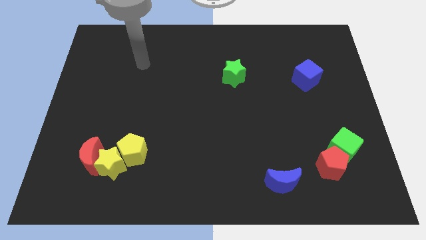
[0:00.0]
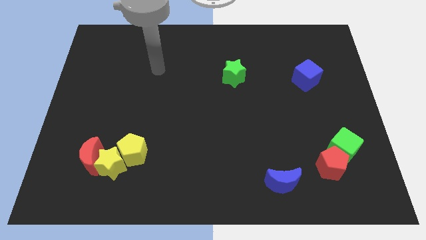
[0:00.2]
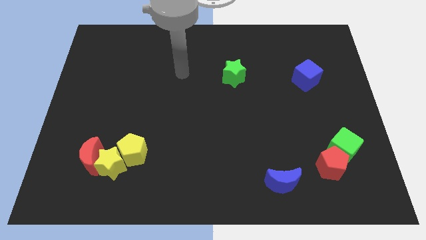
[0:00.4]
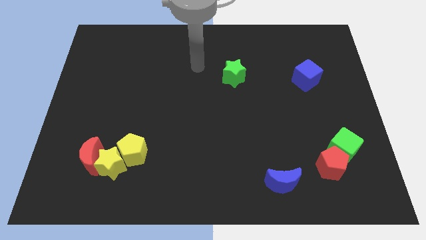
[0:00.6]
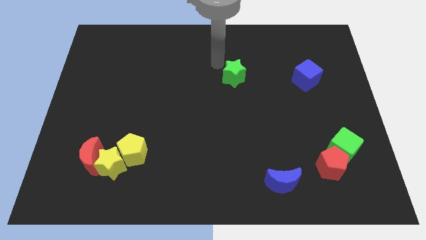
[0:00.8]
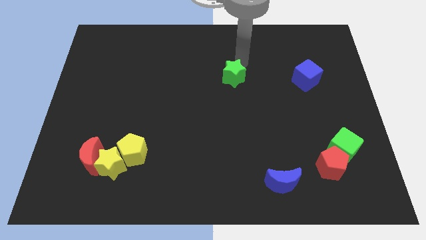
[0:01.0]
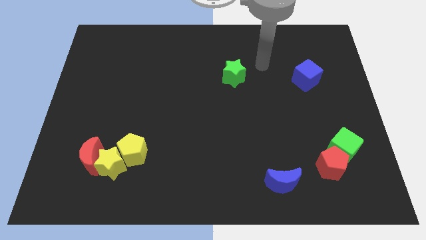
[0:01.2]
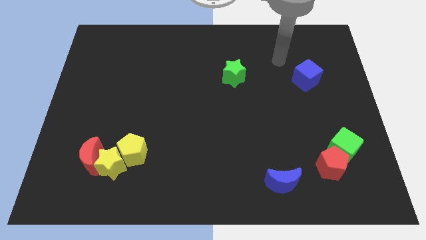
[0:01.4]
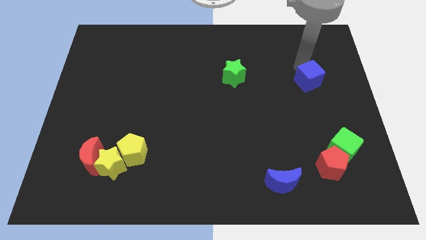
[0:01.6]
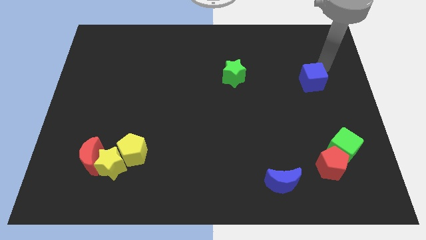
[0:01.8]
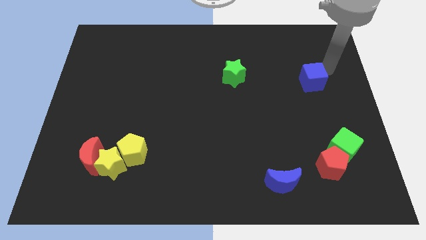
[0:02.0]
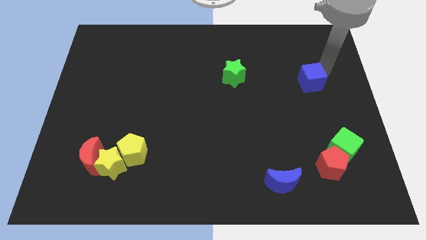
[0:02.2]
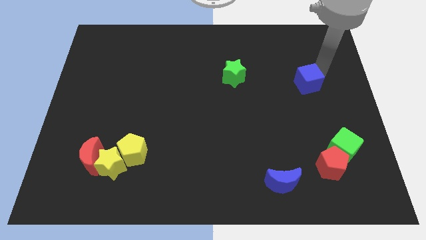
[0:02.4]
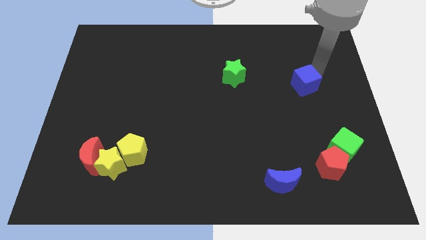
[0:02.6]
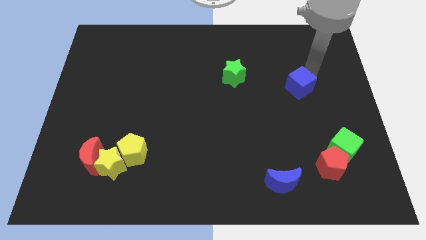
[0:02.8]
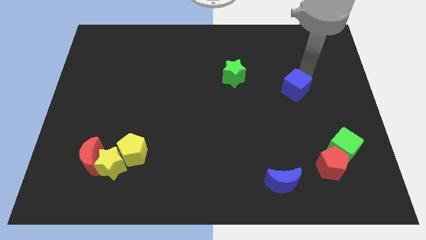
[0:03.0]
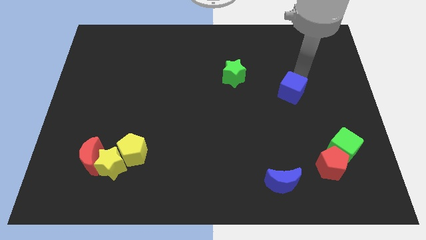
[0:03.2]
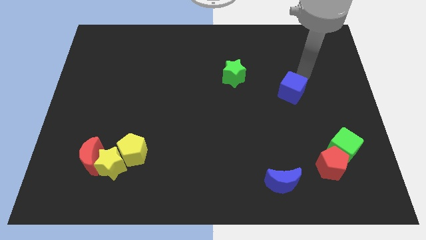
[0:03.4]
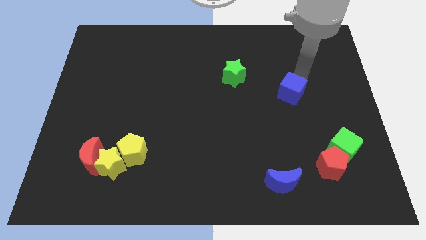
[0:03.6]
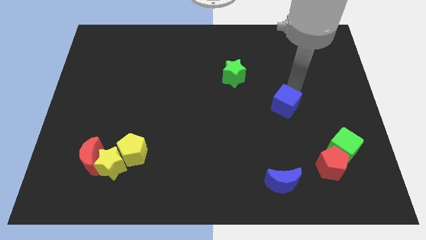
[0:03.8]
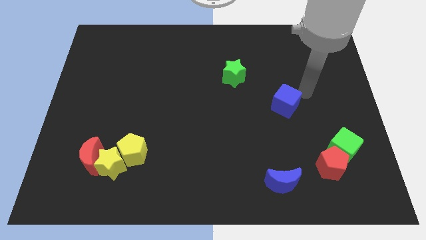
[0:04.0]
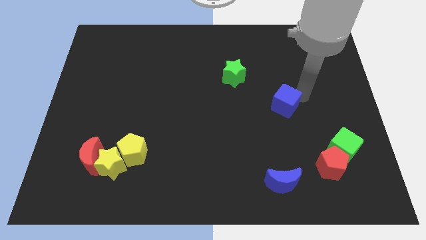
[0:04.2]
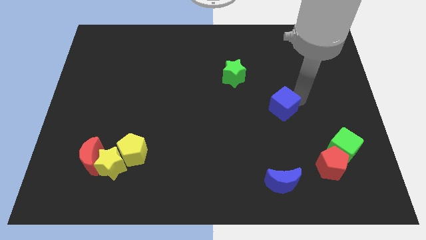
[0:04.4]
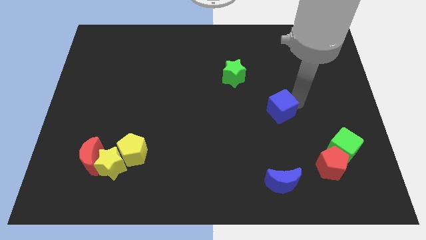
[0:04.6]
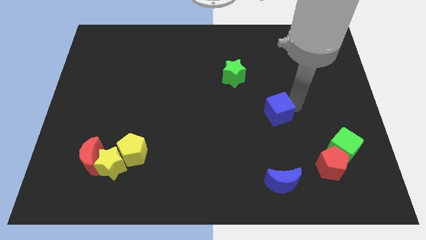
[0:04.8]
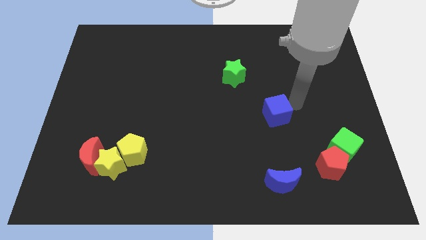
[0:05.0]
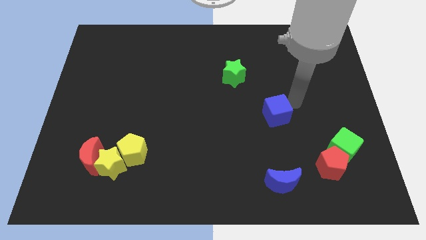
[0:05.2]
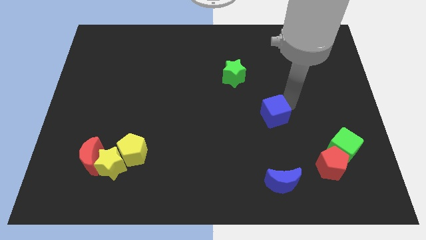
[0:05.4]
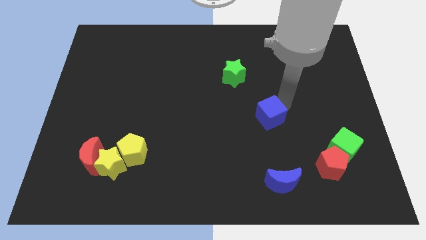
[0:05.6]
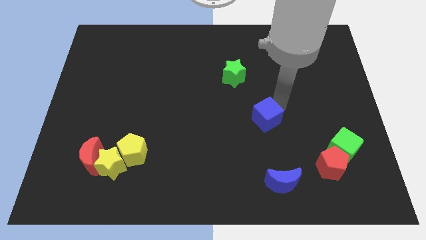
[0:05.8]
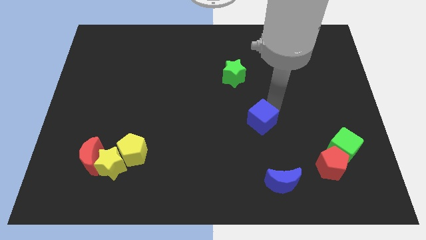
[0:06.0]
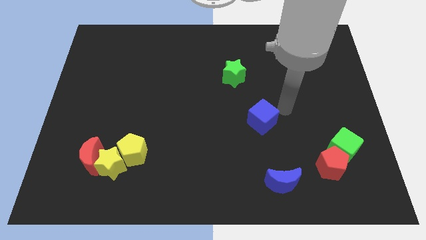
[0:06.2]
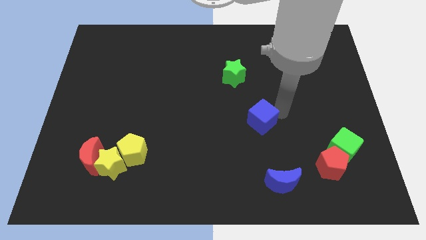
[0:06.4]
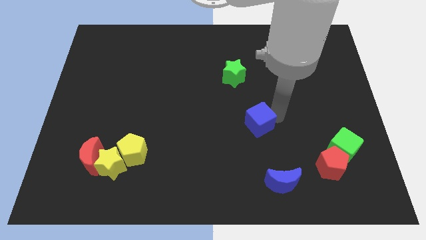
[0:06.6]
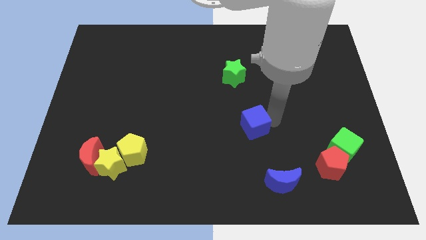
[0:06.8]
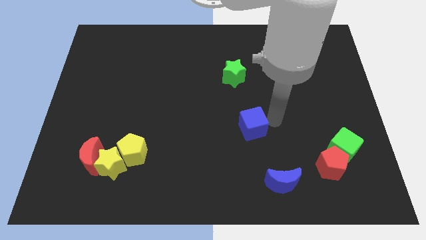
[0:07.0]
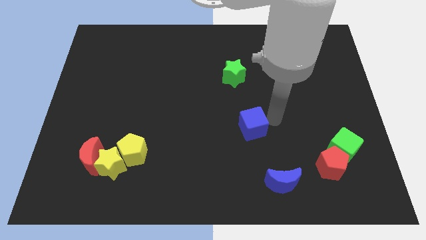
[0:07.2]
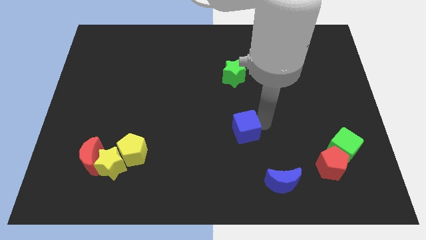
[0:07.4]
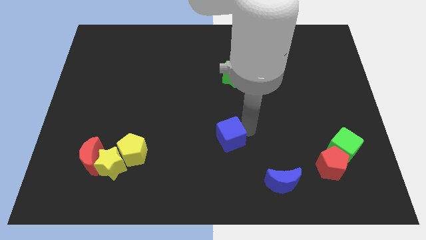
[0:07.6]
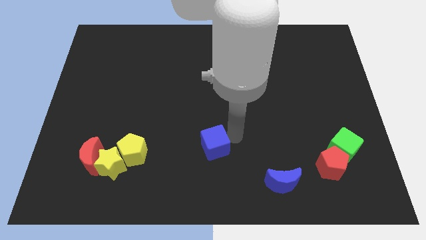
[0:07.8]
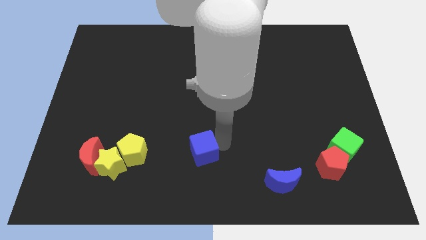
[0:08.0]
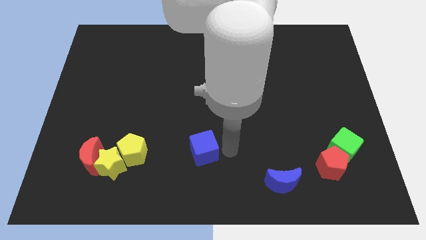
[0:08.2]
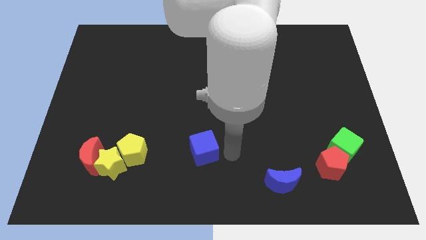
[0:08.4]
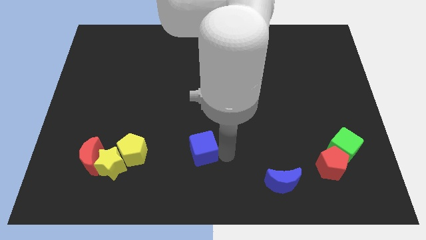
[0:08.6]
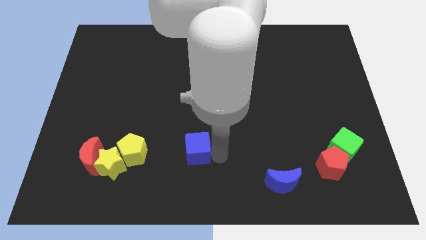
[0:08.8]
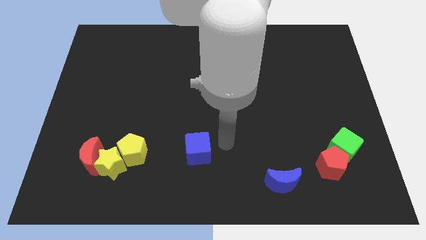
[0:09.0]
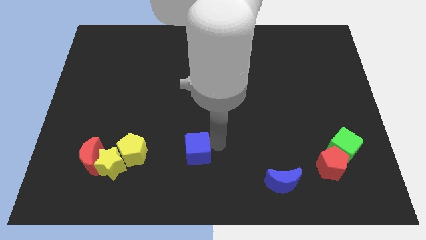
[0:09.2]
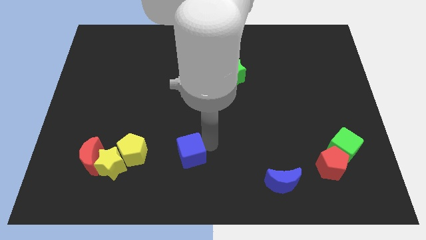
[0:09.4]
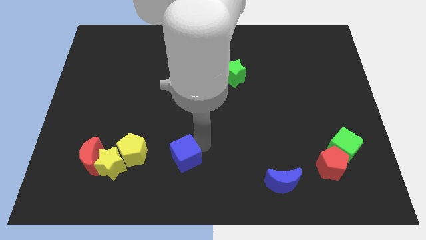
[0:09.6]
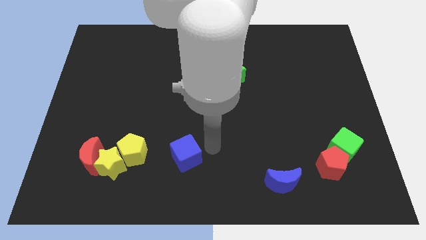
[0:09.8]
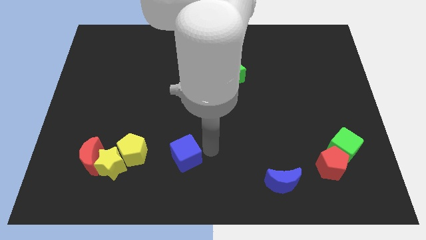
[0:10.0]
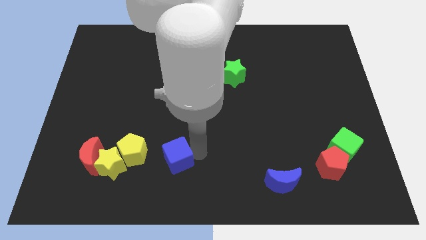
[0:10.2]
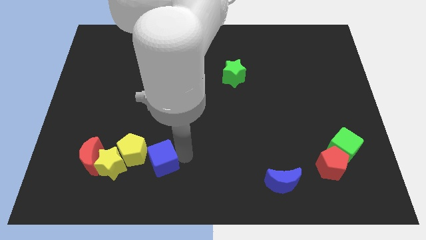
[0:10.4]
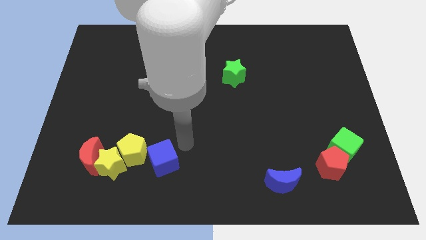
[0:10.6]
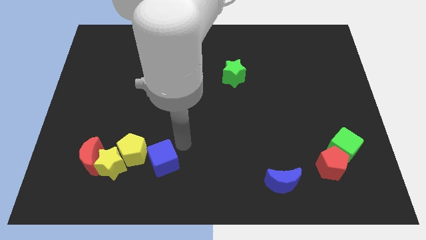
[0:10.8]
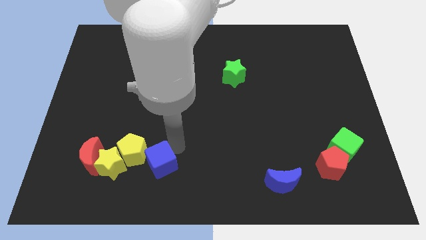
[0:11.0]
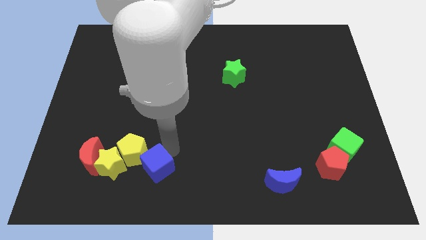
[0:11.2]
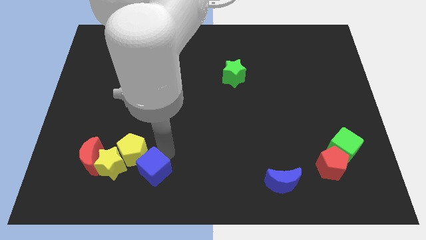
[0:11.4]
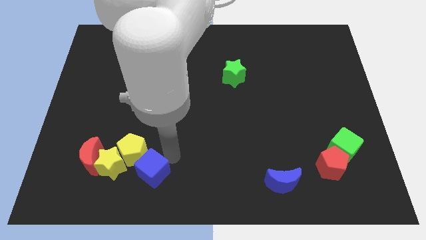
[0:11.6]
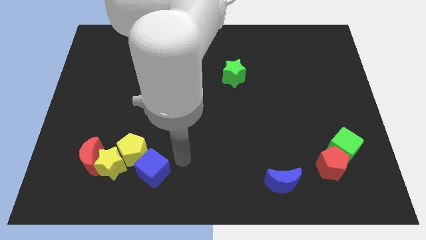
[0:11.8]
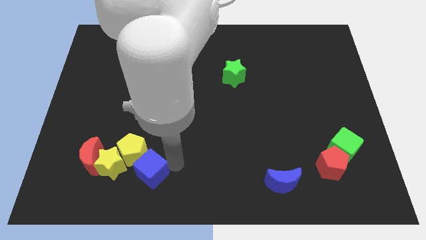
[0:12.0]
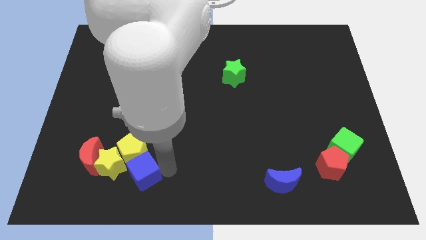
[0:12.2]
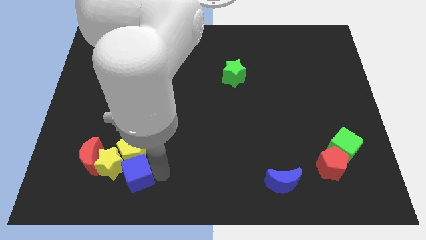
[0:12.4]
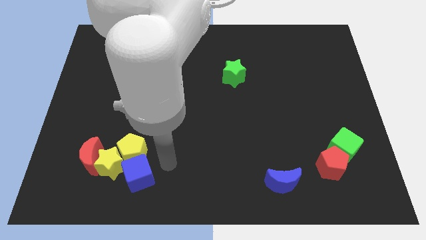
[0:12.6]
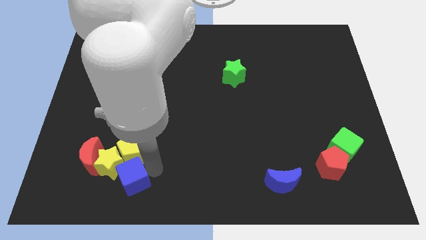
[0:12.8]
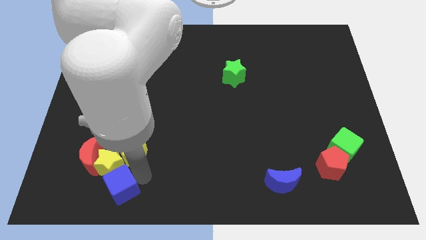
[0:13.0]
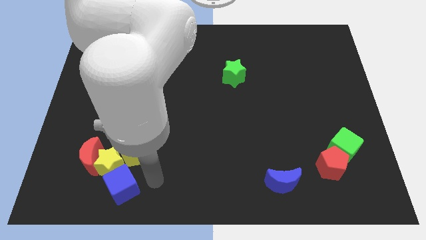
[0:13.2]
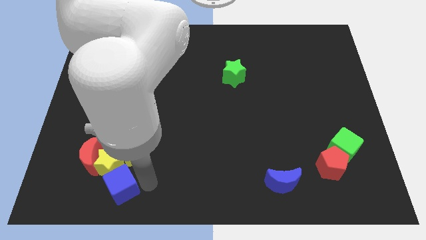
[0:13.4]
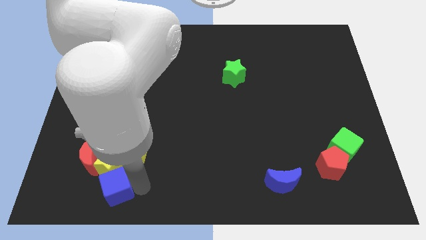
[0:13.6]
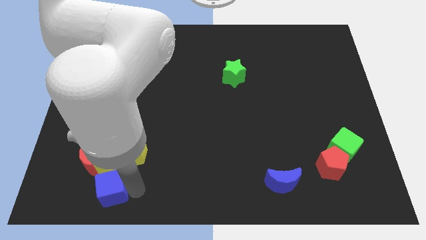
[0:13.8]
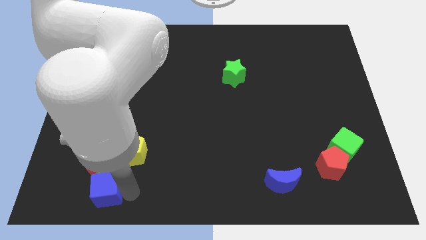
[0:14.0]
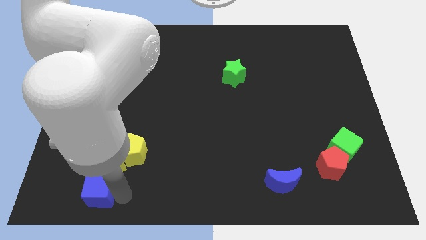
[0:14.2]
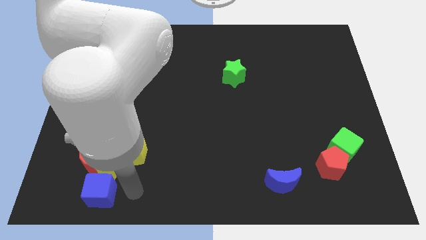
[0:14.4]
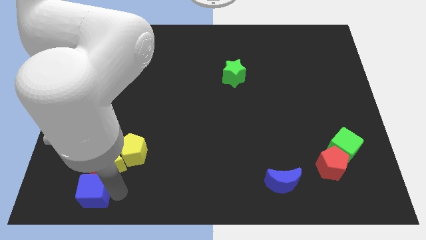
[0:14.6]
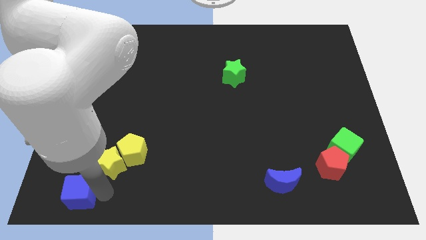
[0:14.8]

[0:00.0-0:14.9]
push the blue cube to the bottom left corner
